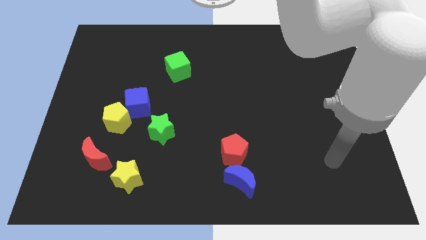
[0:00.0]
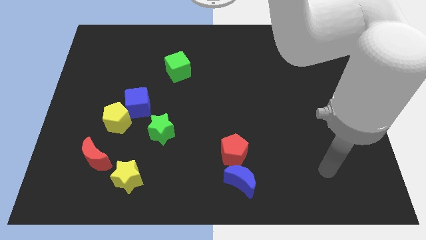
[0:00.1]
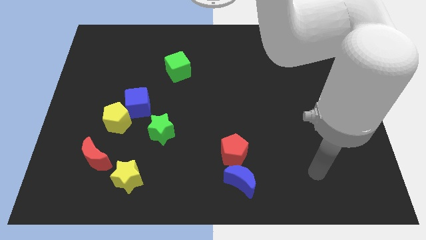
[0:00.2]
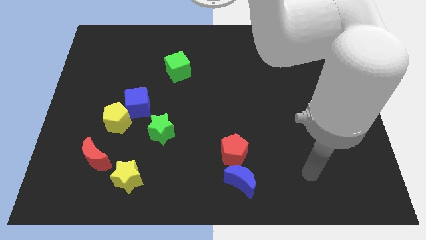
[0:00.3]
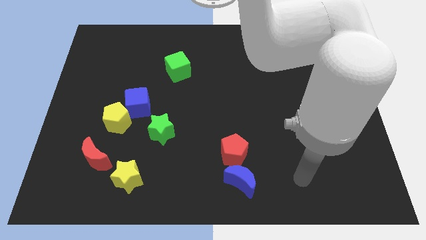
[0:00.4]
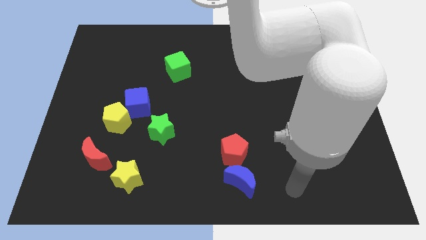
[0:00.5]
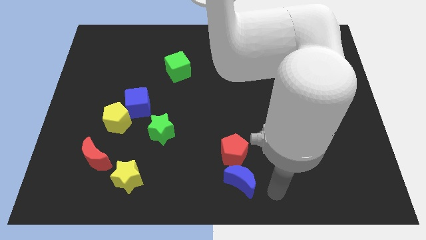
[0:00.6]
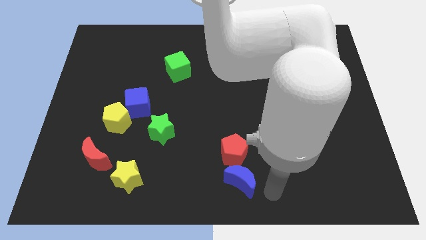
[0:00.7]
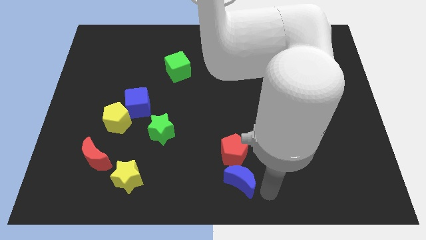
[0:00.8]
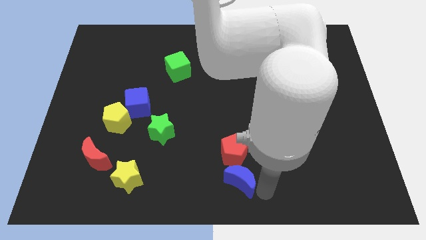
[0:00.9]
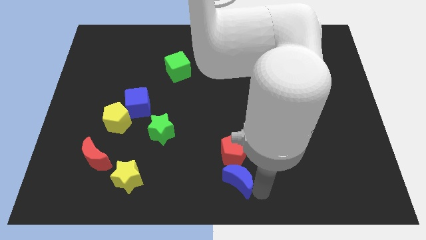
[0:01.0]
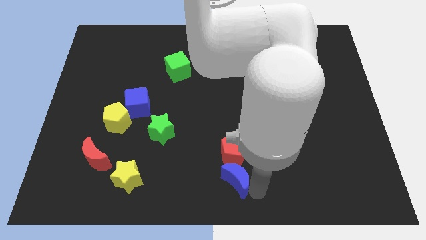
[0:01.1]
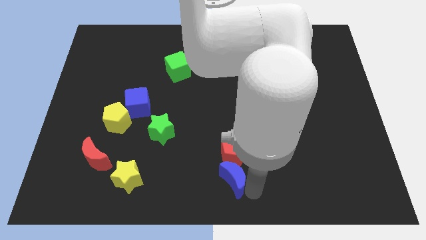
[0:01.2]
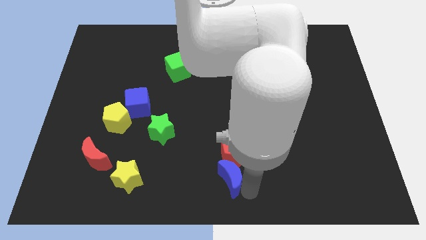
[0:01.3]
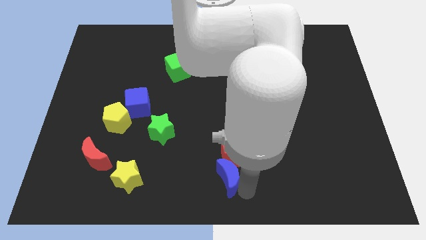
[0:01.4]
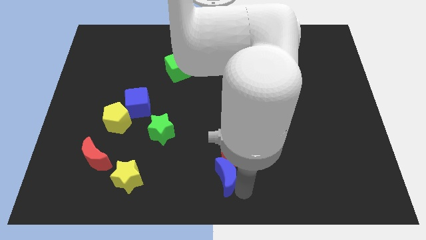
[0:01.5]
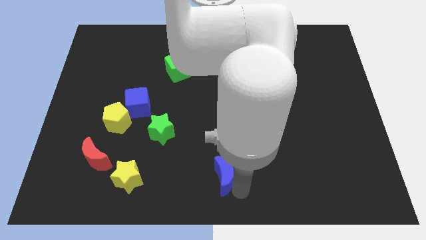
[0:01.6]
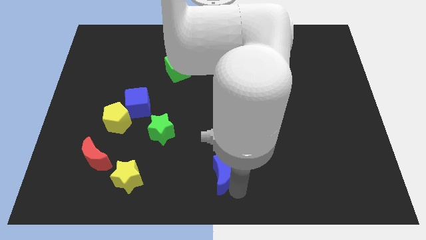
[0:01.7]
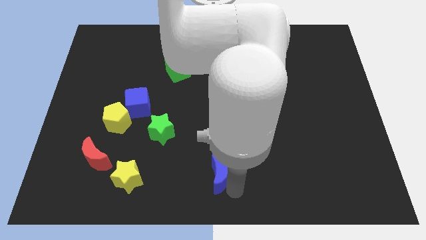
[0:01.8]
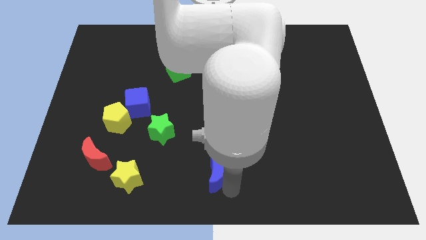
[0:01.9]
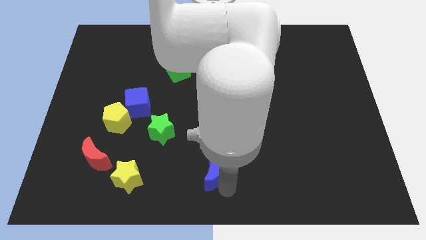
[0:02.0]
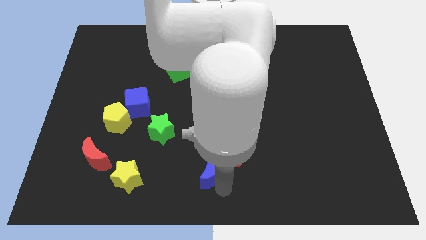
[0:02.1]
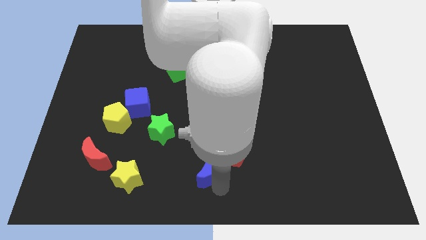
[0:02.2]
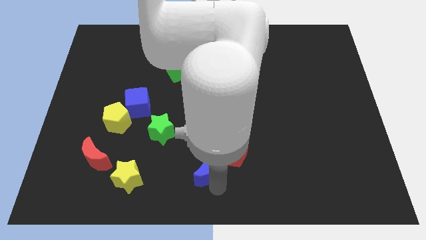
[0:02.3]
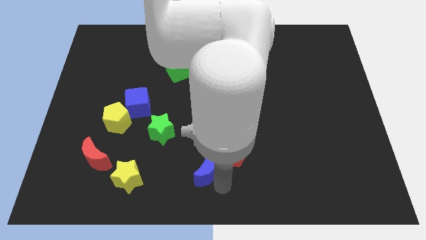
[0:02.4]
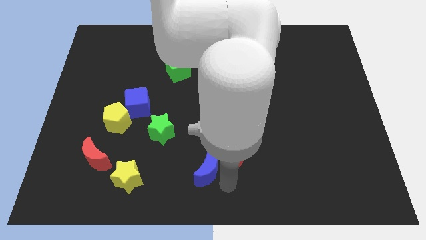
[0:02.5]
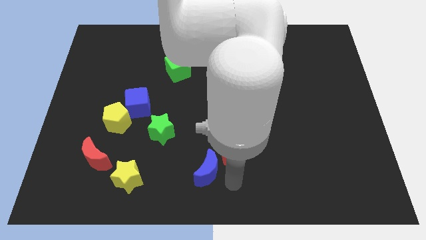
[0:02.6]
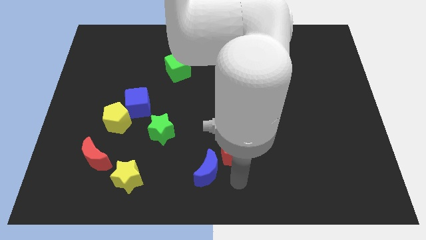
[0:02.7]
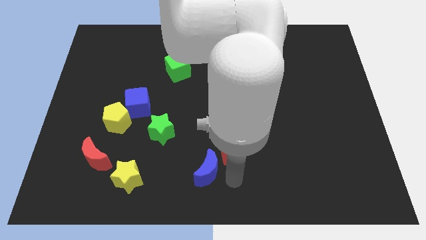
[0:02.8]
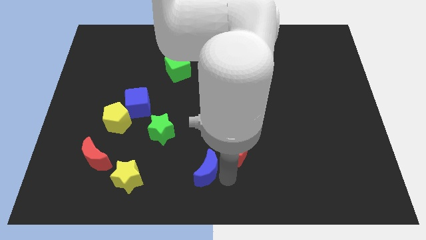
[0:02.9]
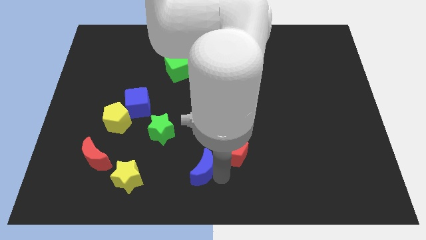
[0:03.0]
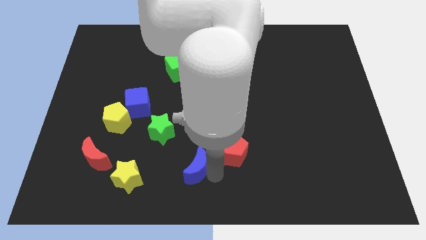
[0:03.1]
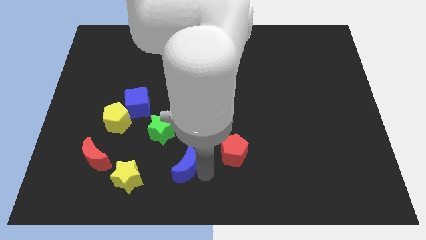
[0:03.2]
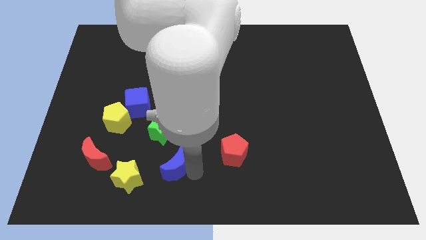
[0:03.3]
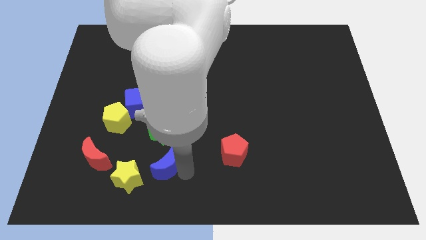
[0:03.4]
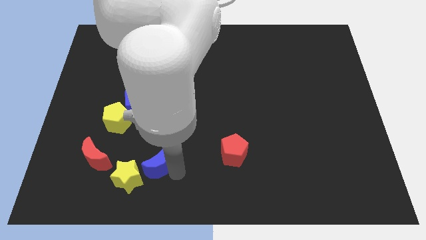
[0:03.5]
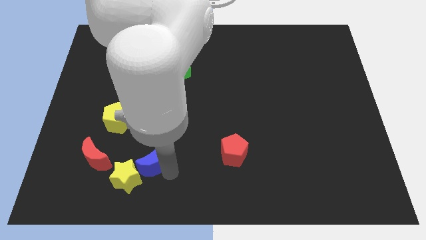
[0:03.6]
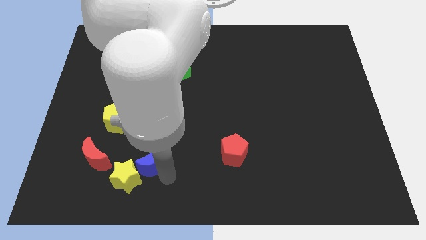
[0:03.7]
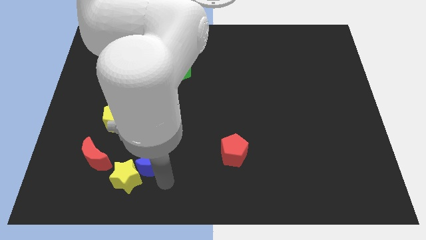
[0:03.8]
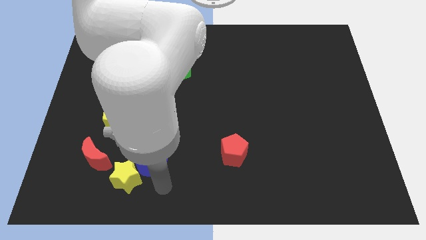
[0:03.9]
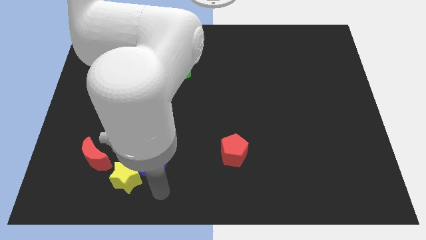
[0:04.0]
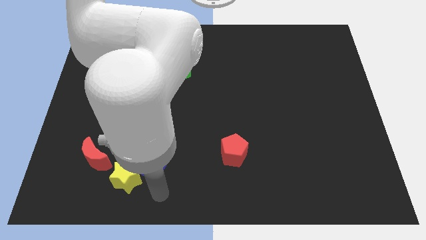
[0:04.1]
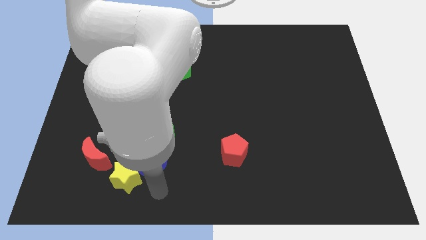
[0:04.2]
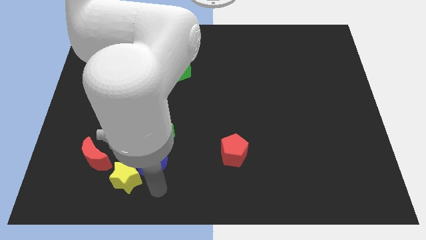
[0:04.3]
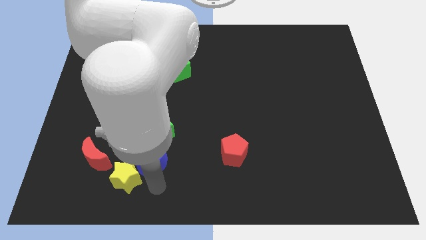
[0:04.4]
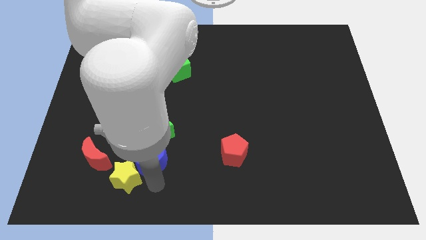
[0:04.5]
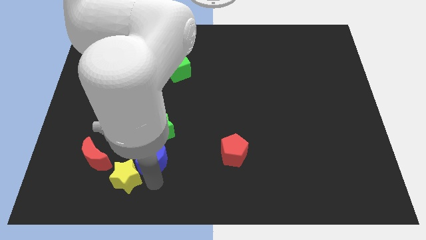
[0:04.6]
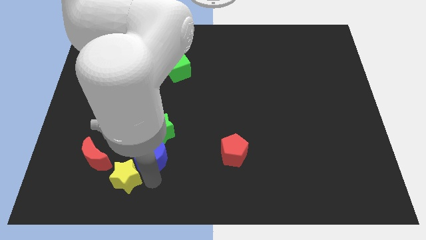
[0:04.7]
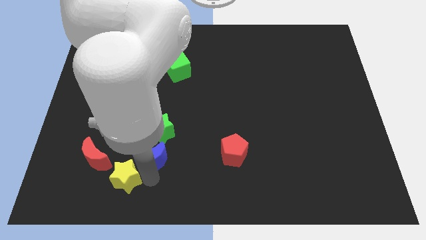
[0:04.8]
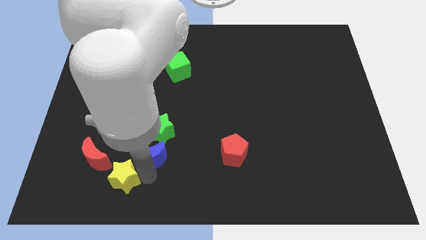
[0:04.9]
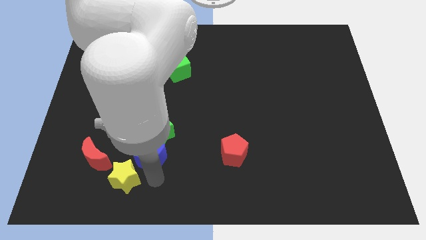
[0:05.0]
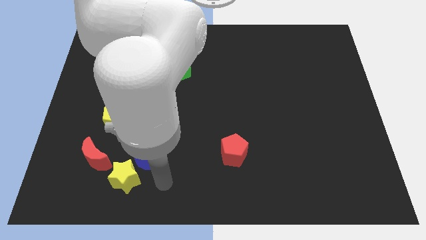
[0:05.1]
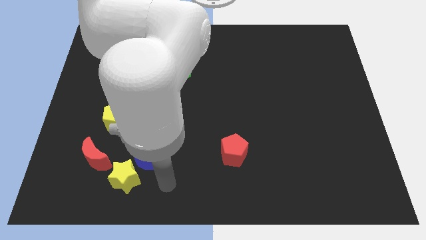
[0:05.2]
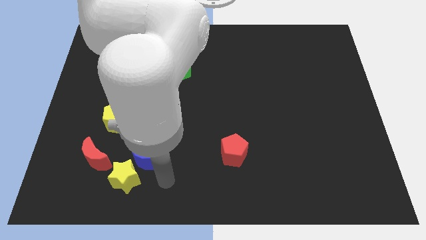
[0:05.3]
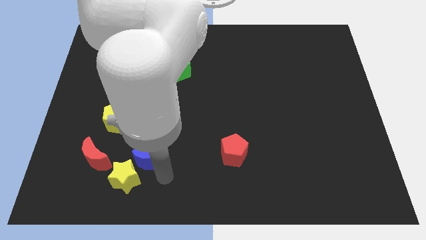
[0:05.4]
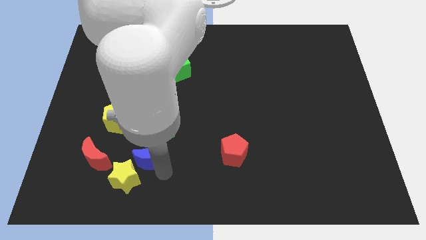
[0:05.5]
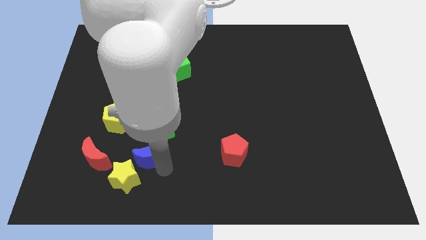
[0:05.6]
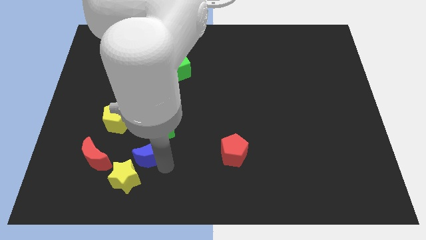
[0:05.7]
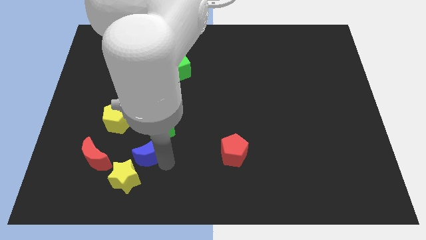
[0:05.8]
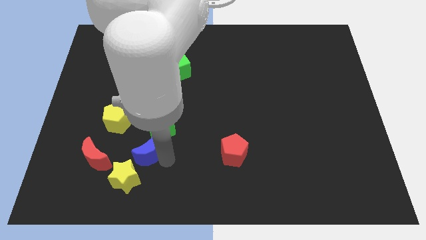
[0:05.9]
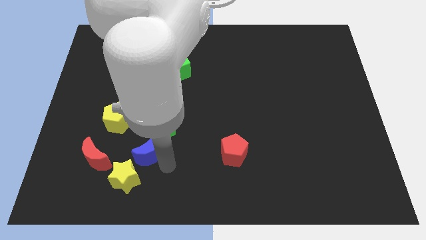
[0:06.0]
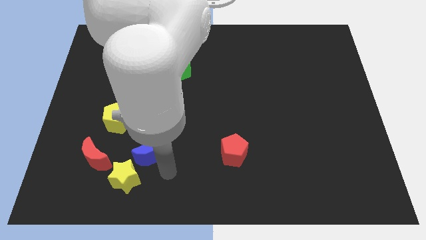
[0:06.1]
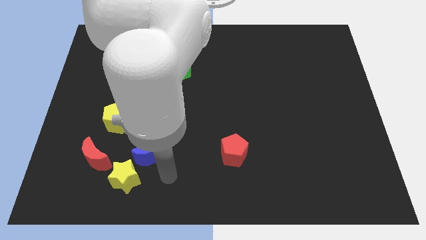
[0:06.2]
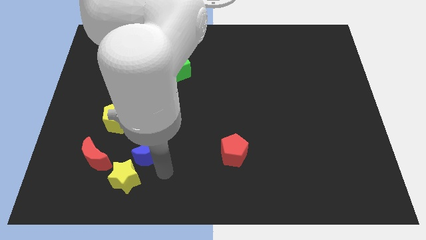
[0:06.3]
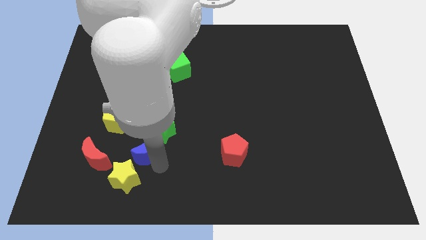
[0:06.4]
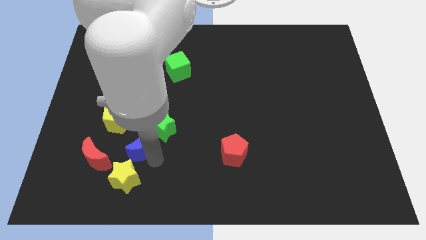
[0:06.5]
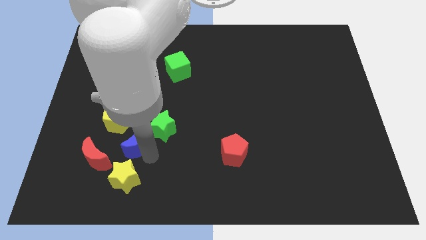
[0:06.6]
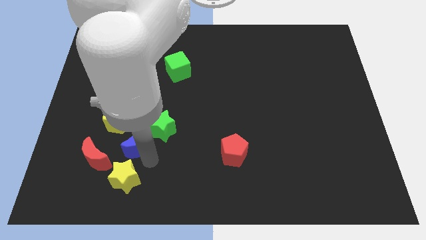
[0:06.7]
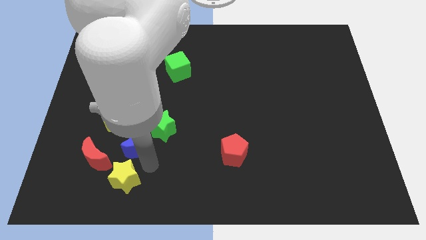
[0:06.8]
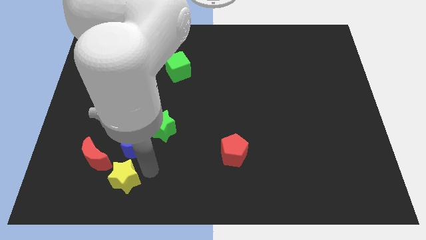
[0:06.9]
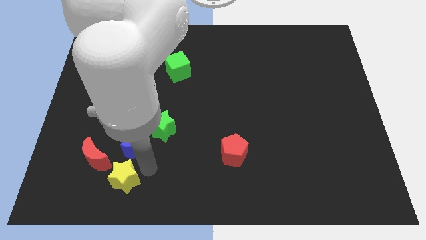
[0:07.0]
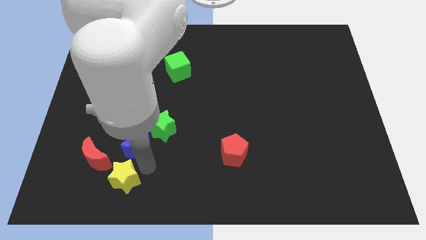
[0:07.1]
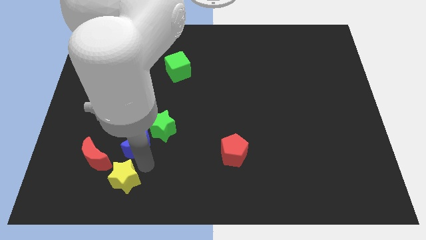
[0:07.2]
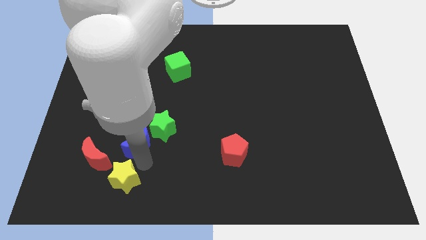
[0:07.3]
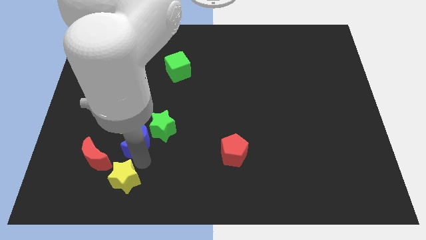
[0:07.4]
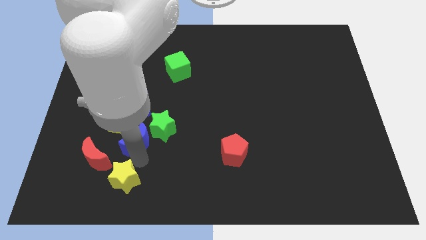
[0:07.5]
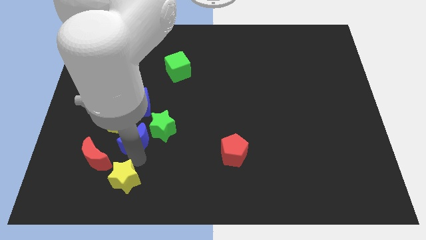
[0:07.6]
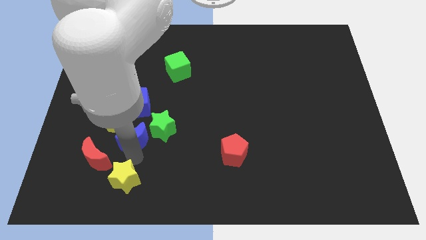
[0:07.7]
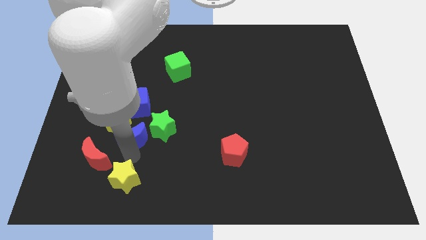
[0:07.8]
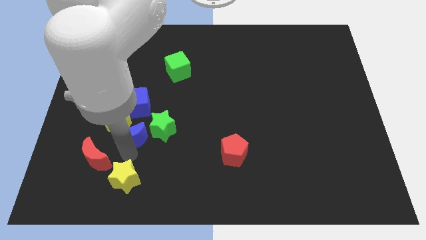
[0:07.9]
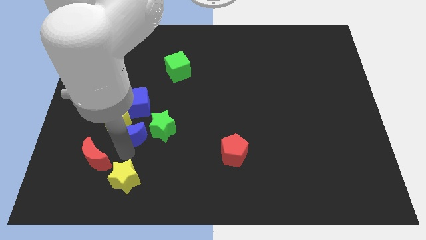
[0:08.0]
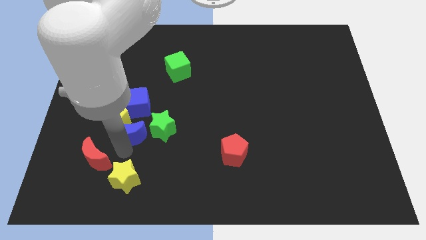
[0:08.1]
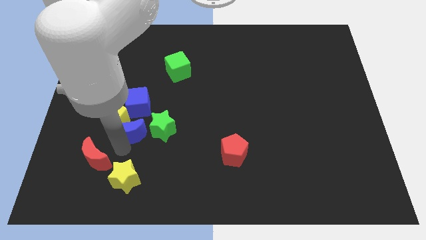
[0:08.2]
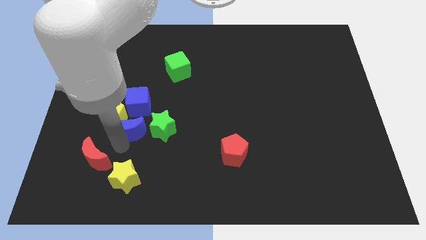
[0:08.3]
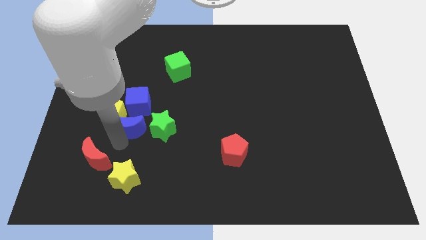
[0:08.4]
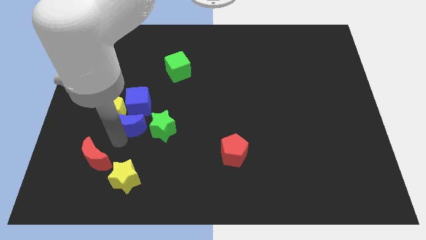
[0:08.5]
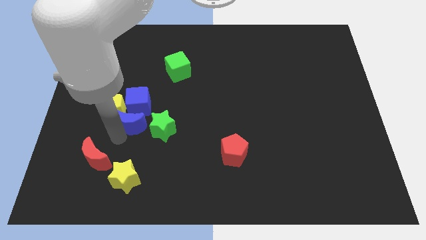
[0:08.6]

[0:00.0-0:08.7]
push the blue moon to the blue cube

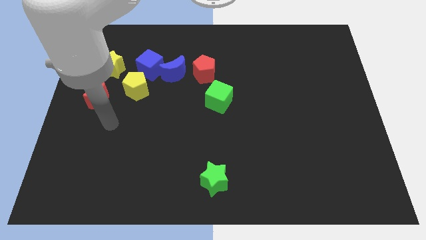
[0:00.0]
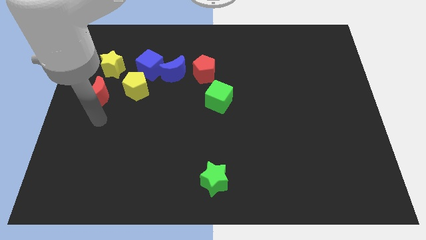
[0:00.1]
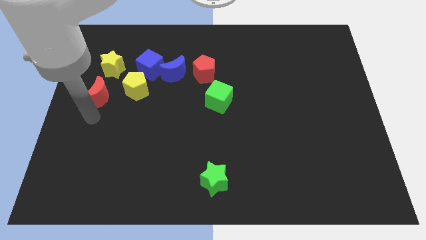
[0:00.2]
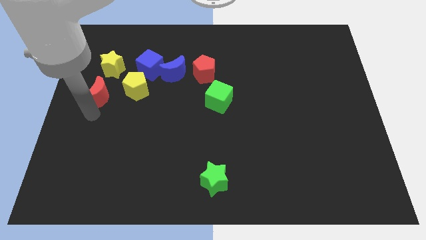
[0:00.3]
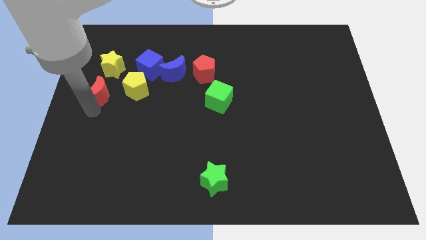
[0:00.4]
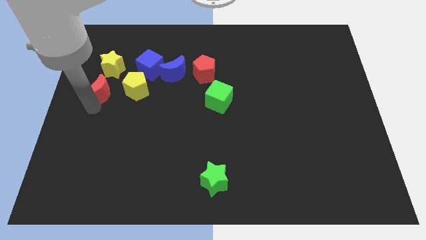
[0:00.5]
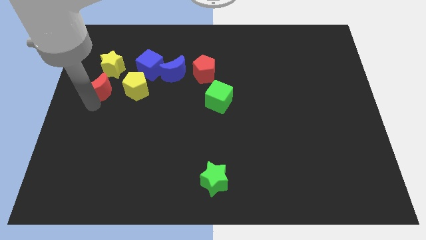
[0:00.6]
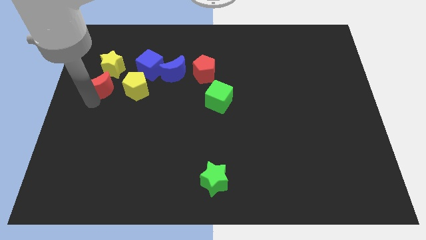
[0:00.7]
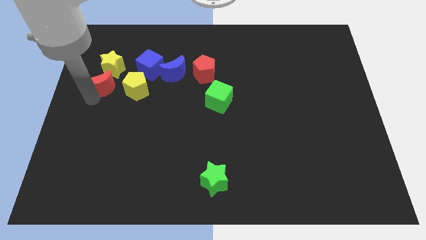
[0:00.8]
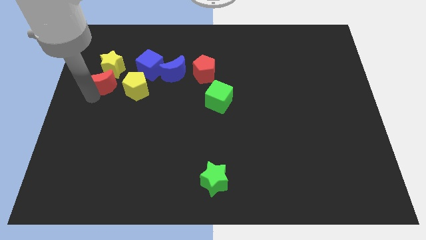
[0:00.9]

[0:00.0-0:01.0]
slide the red moon close to the yellow star
